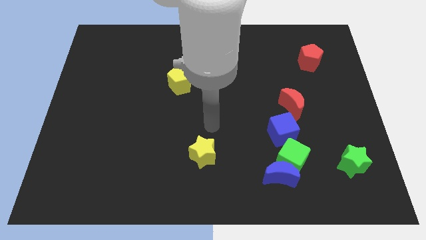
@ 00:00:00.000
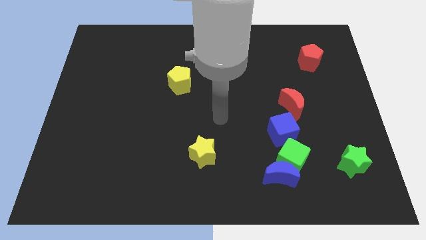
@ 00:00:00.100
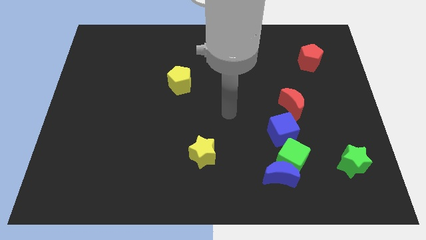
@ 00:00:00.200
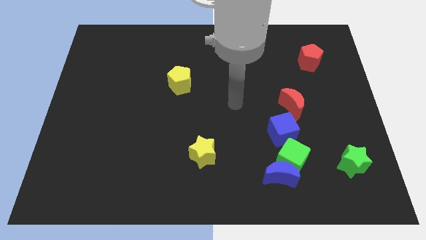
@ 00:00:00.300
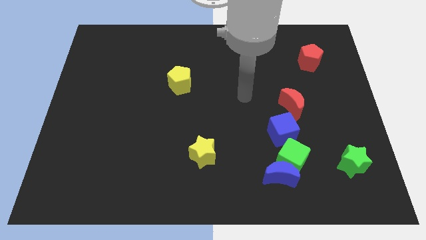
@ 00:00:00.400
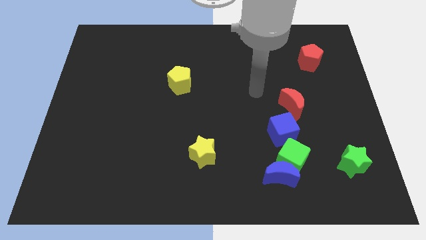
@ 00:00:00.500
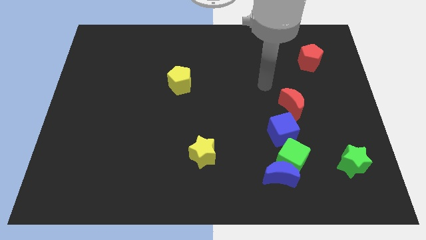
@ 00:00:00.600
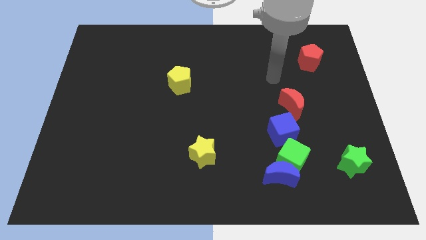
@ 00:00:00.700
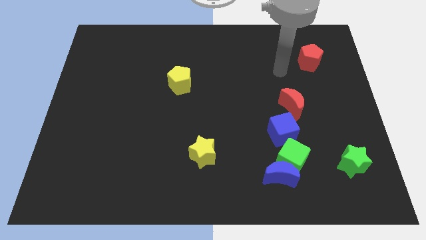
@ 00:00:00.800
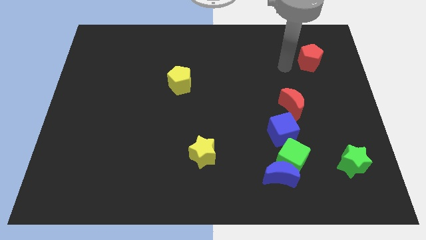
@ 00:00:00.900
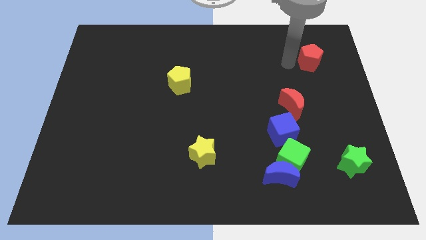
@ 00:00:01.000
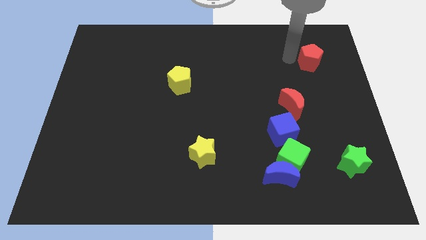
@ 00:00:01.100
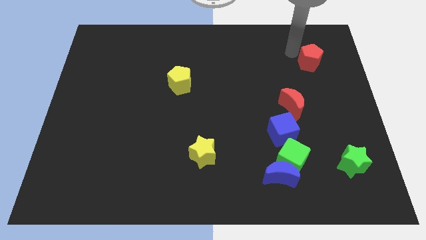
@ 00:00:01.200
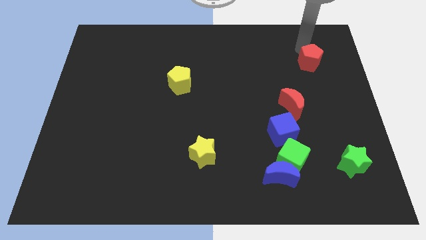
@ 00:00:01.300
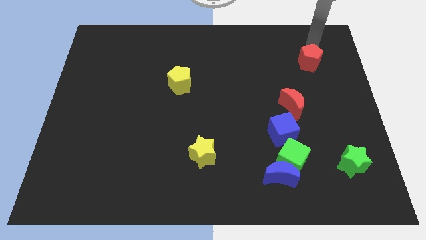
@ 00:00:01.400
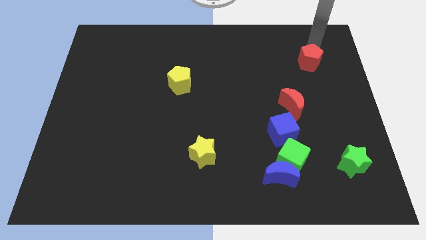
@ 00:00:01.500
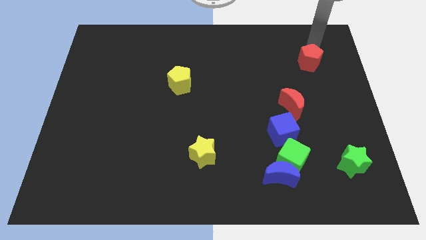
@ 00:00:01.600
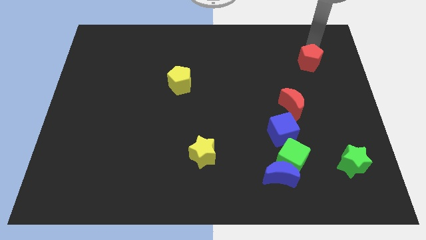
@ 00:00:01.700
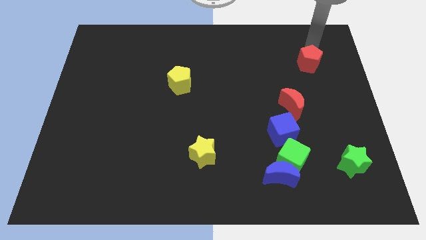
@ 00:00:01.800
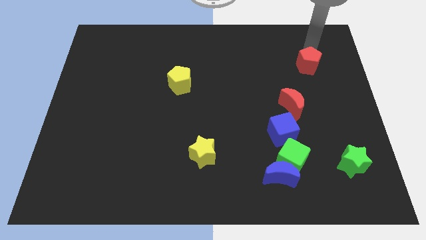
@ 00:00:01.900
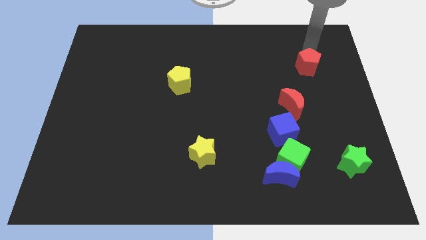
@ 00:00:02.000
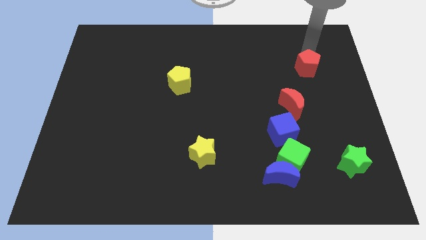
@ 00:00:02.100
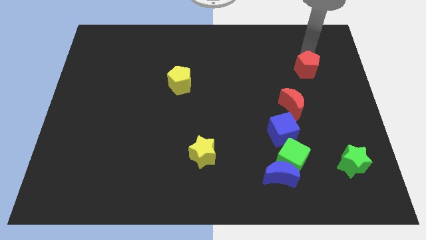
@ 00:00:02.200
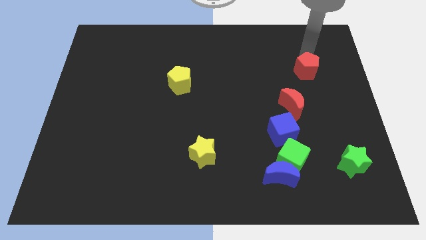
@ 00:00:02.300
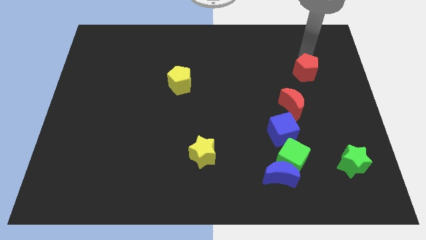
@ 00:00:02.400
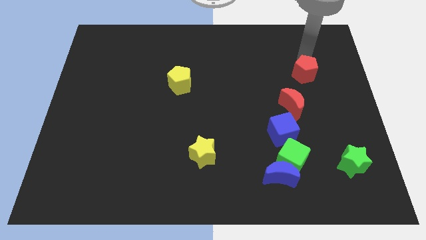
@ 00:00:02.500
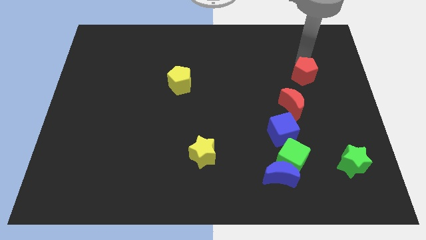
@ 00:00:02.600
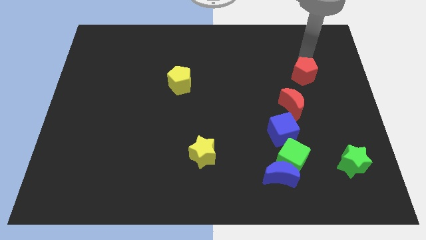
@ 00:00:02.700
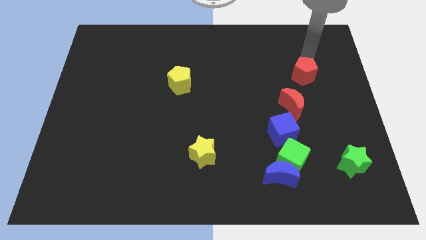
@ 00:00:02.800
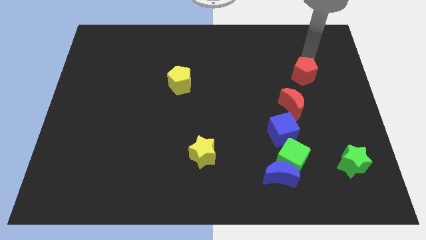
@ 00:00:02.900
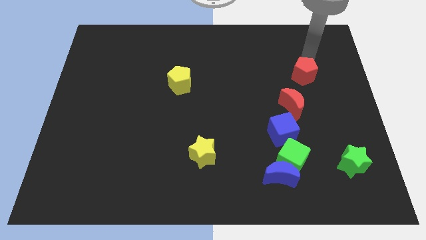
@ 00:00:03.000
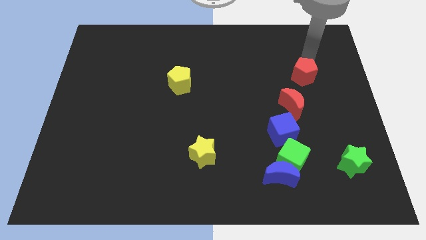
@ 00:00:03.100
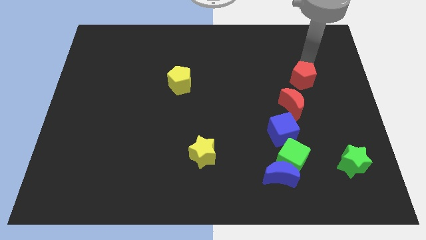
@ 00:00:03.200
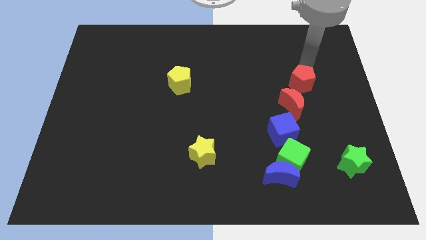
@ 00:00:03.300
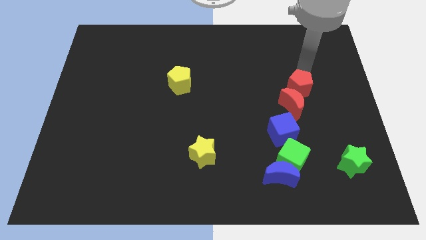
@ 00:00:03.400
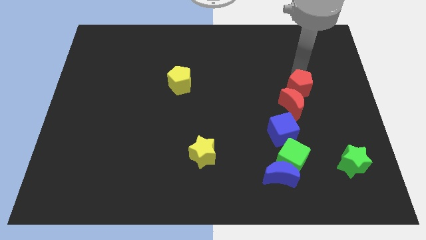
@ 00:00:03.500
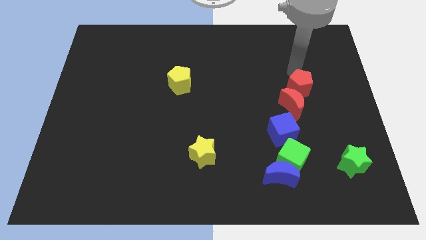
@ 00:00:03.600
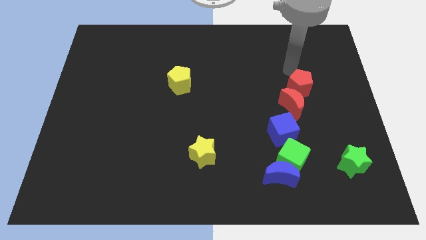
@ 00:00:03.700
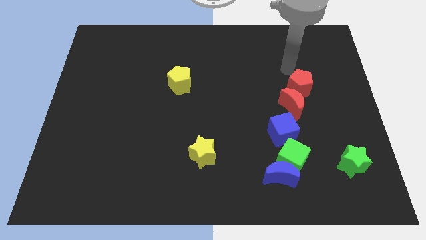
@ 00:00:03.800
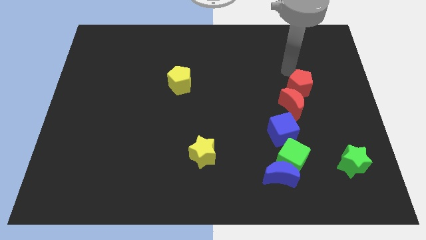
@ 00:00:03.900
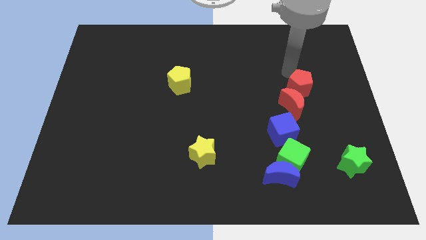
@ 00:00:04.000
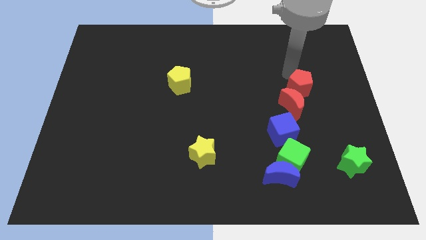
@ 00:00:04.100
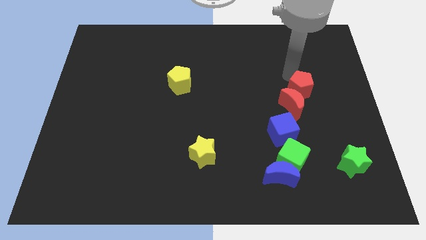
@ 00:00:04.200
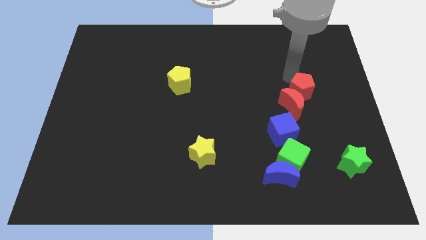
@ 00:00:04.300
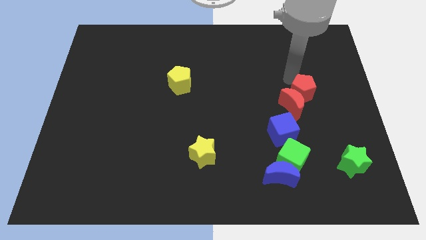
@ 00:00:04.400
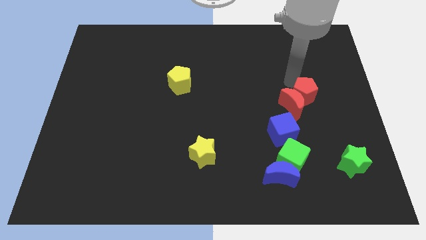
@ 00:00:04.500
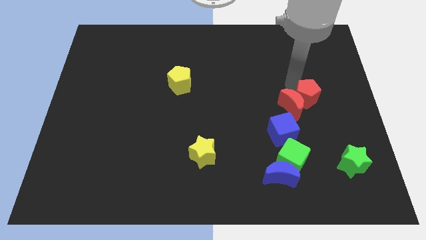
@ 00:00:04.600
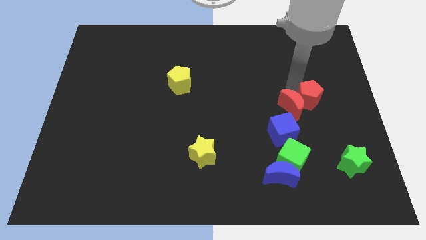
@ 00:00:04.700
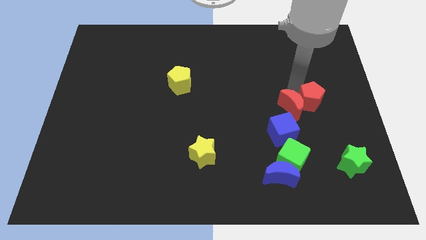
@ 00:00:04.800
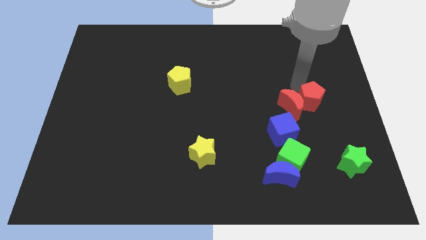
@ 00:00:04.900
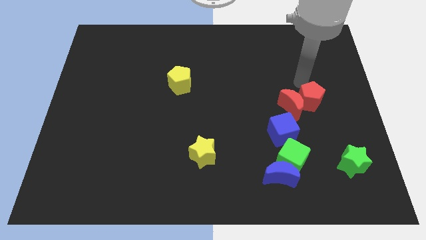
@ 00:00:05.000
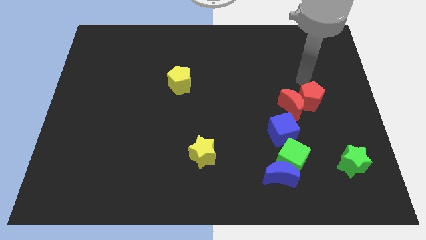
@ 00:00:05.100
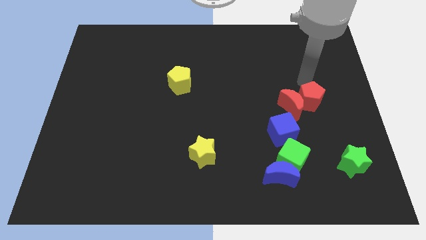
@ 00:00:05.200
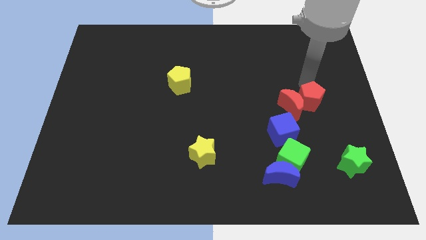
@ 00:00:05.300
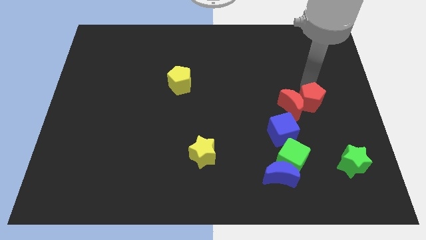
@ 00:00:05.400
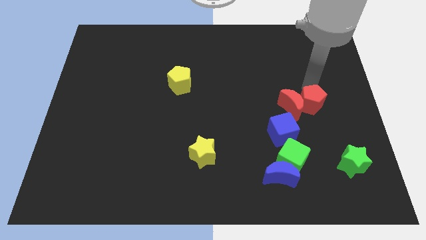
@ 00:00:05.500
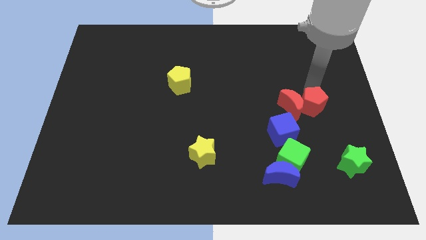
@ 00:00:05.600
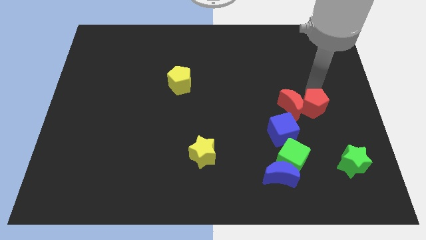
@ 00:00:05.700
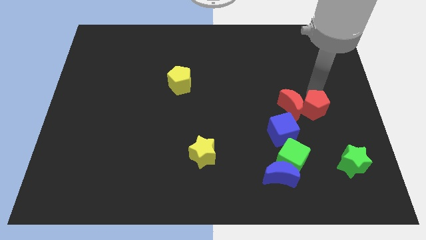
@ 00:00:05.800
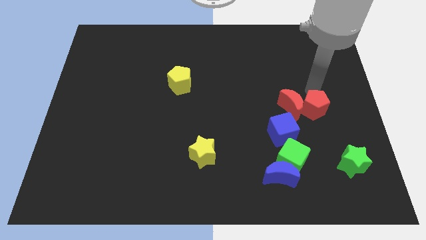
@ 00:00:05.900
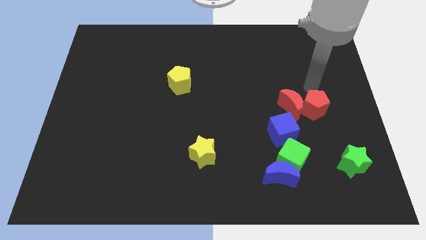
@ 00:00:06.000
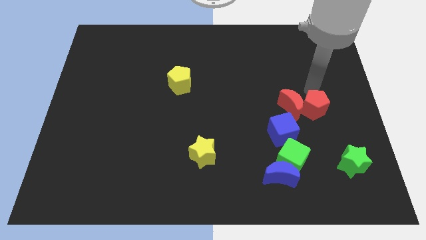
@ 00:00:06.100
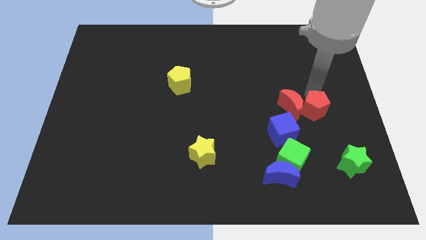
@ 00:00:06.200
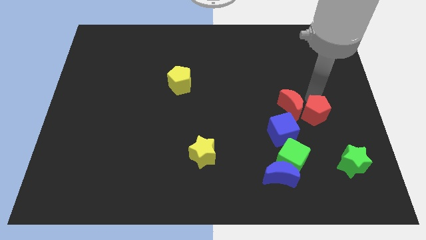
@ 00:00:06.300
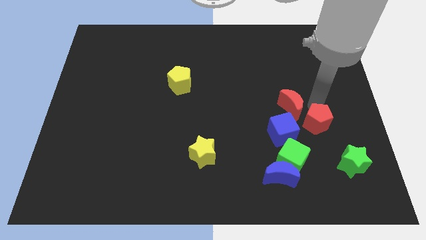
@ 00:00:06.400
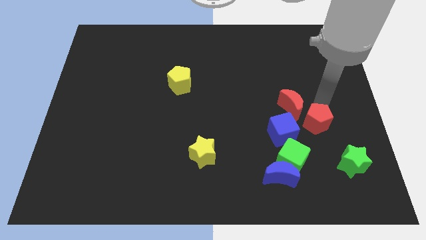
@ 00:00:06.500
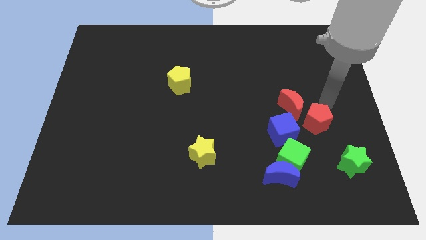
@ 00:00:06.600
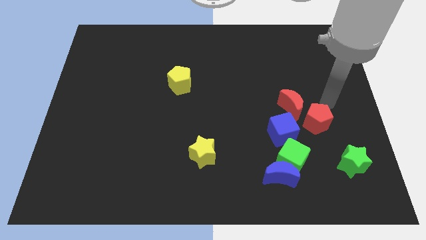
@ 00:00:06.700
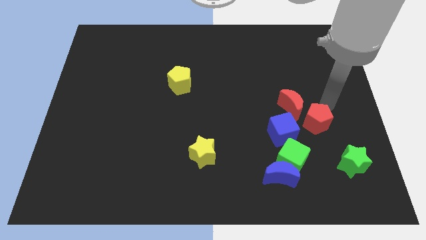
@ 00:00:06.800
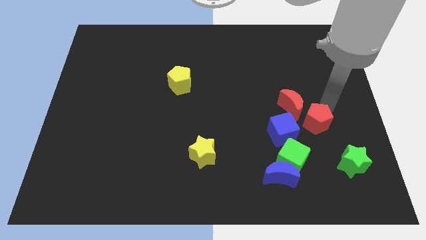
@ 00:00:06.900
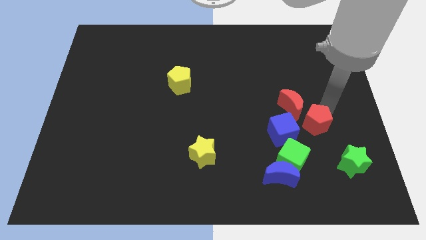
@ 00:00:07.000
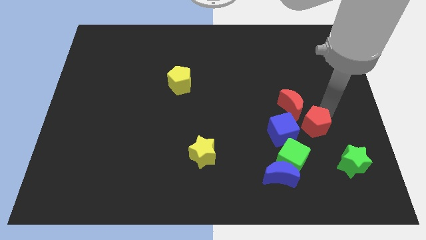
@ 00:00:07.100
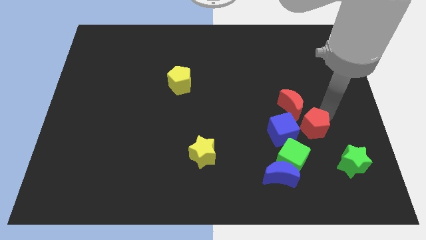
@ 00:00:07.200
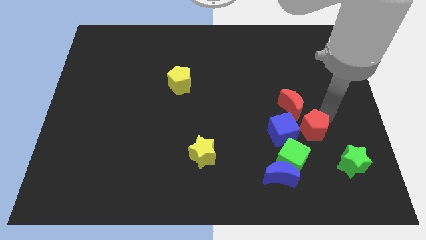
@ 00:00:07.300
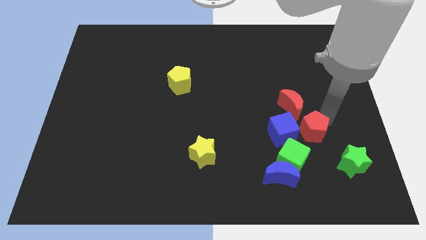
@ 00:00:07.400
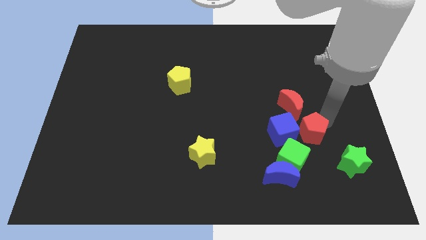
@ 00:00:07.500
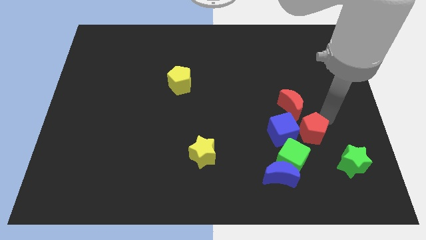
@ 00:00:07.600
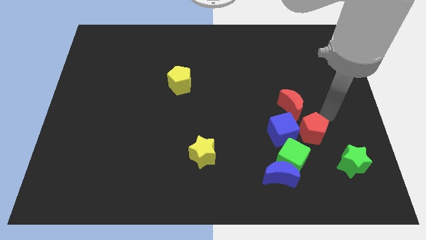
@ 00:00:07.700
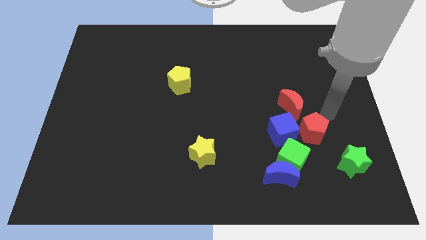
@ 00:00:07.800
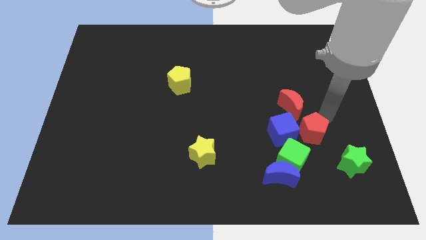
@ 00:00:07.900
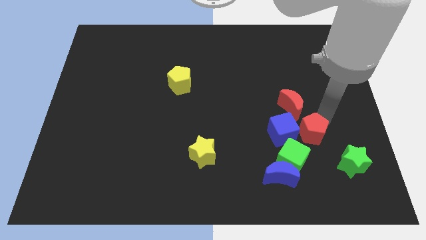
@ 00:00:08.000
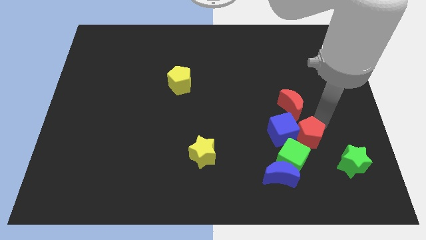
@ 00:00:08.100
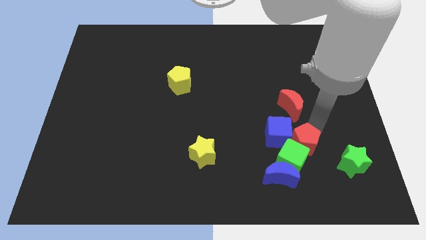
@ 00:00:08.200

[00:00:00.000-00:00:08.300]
push the red pentagon next to the green cube
